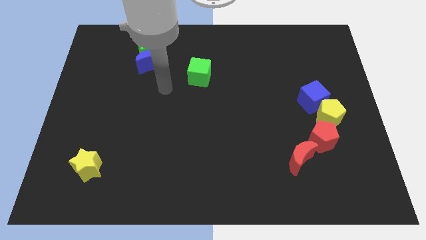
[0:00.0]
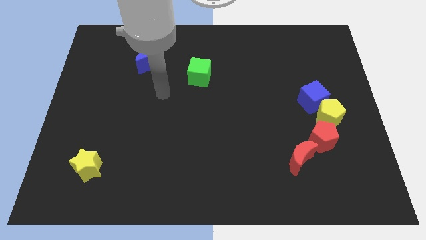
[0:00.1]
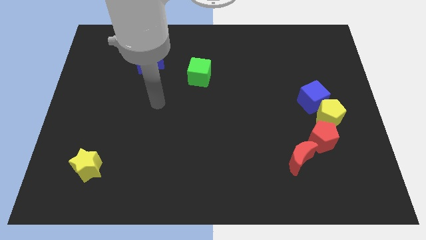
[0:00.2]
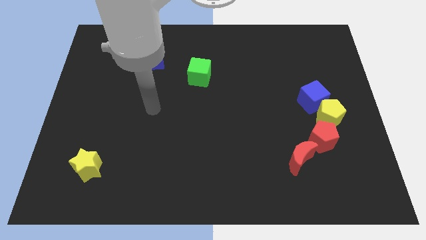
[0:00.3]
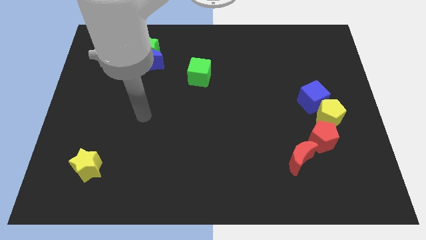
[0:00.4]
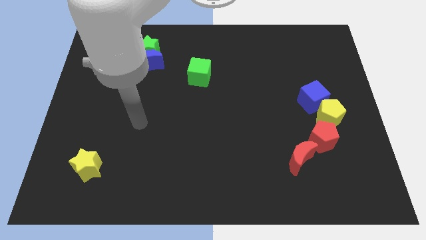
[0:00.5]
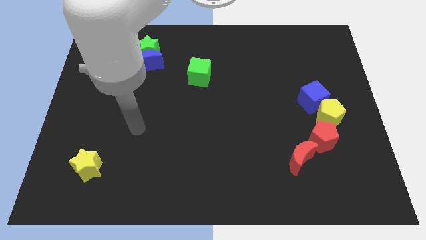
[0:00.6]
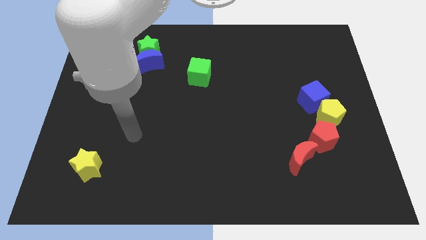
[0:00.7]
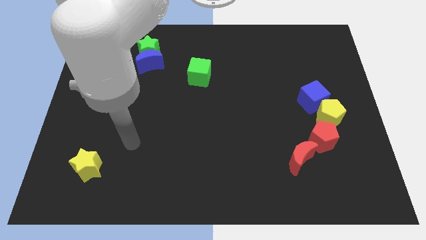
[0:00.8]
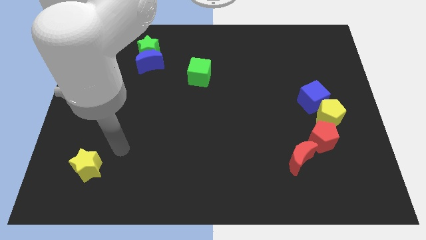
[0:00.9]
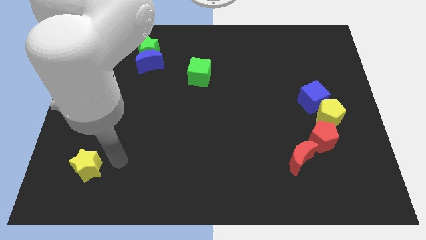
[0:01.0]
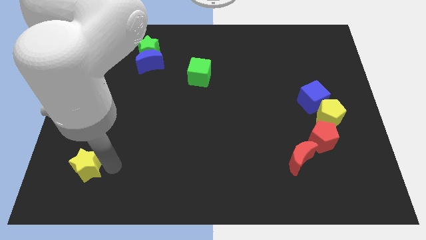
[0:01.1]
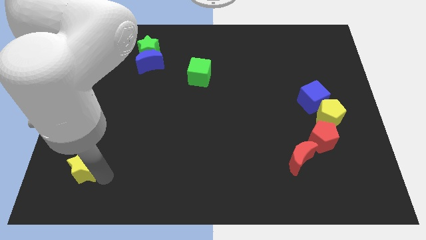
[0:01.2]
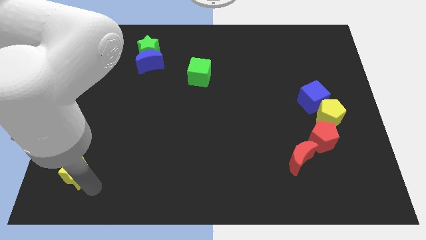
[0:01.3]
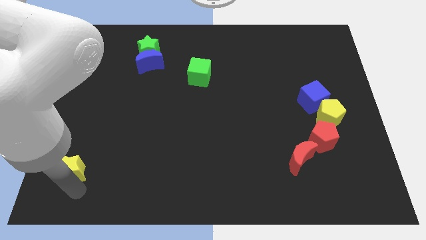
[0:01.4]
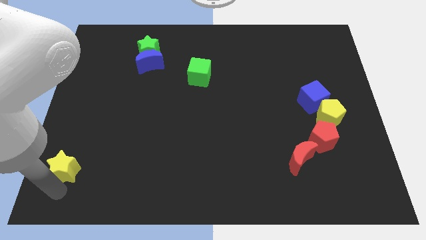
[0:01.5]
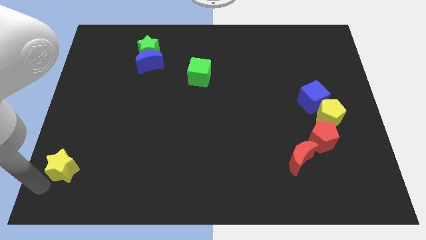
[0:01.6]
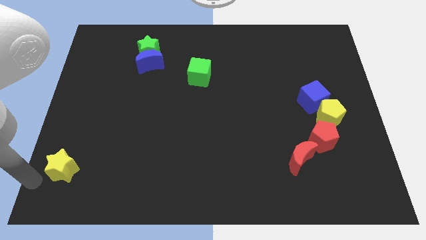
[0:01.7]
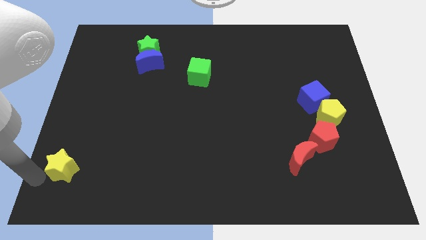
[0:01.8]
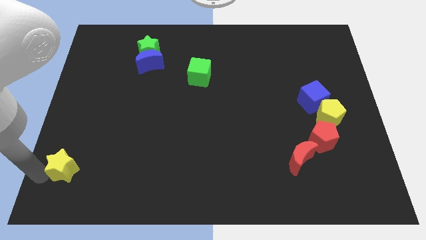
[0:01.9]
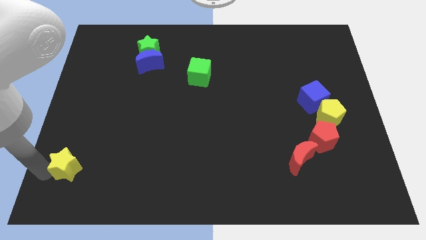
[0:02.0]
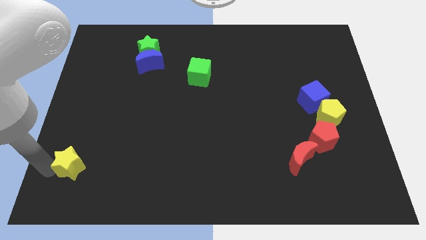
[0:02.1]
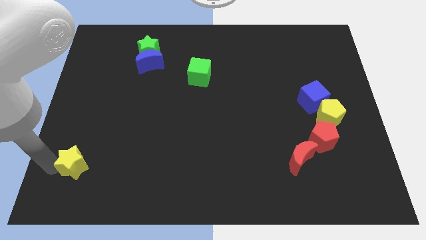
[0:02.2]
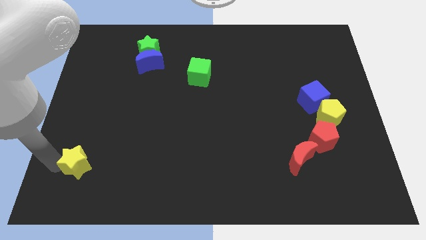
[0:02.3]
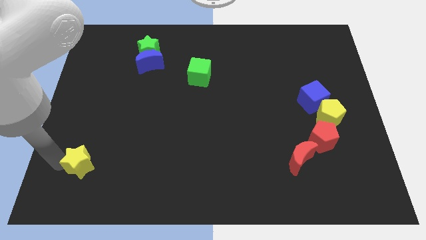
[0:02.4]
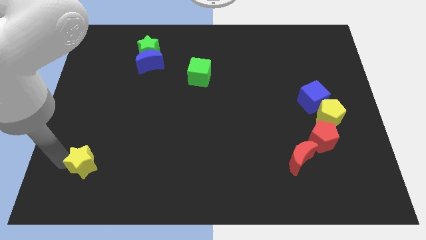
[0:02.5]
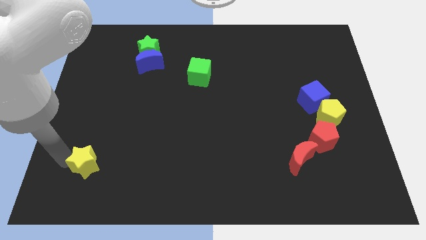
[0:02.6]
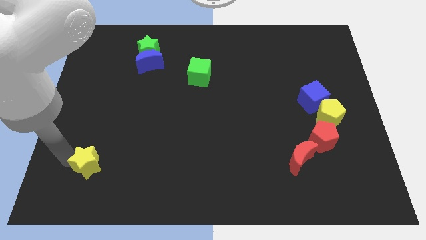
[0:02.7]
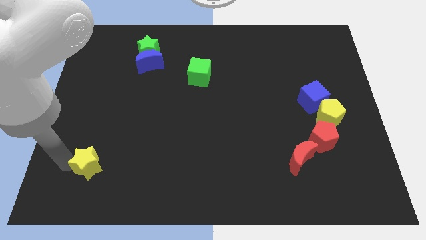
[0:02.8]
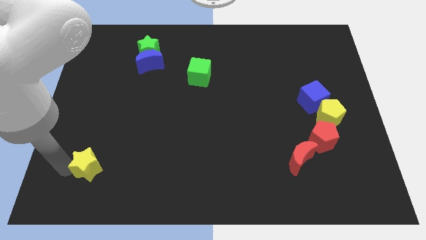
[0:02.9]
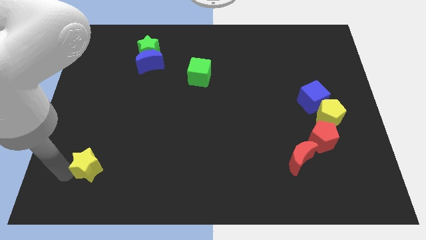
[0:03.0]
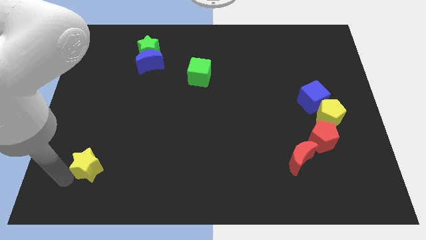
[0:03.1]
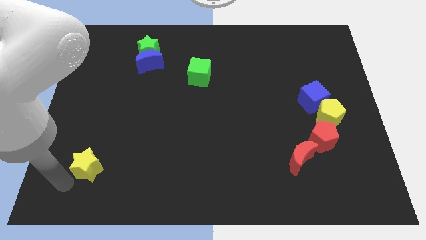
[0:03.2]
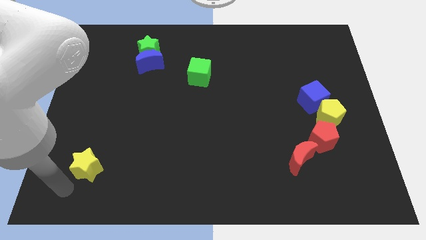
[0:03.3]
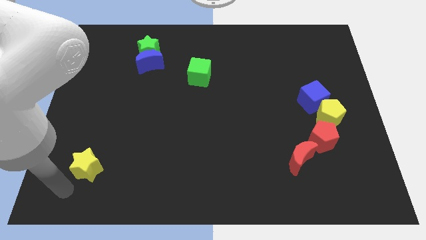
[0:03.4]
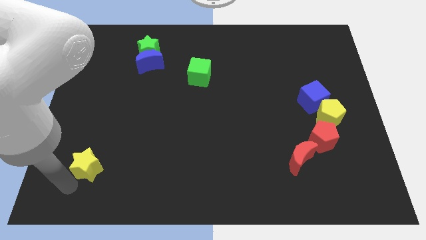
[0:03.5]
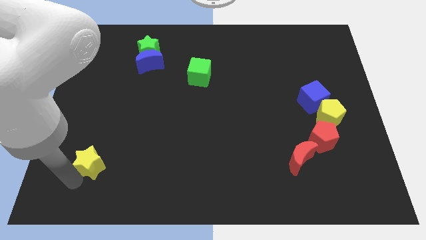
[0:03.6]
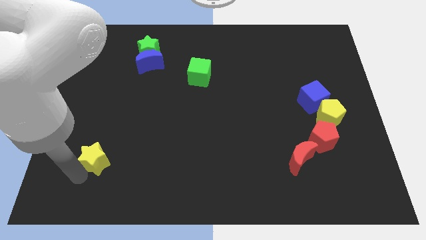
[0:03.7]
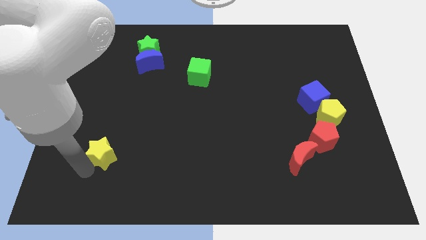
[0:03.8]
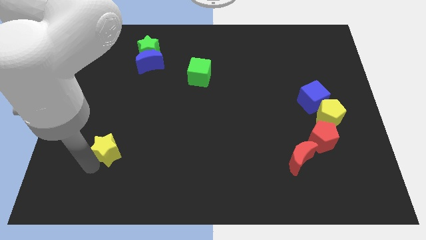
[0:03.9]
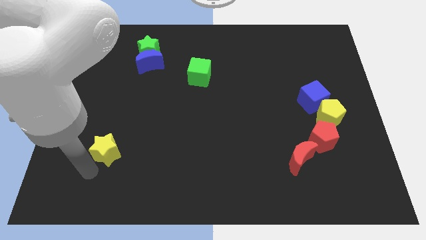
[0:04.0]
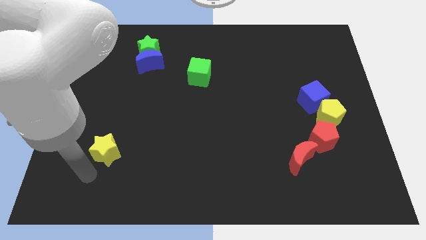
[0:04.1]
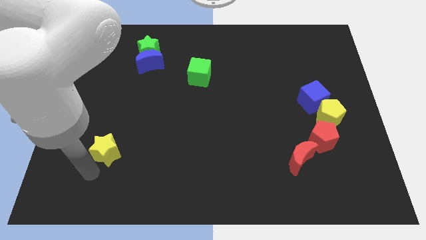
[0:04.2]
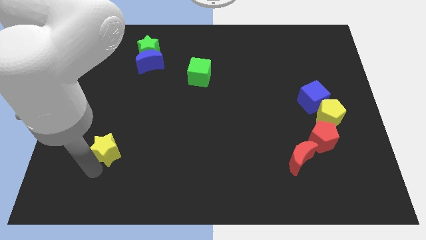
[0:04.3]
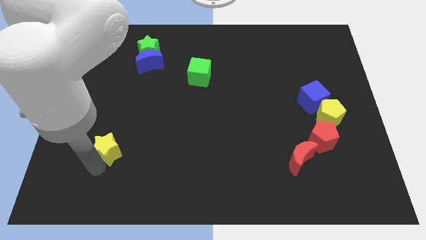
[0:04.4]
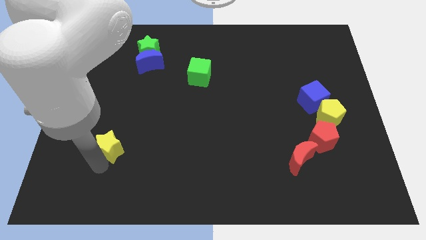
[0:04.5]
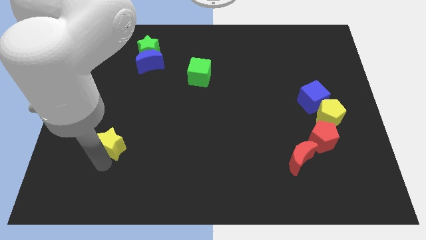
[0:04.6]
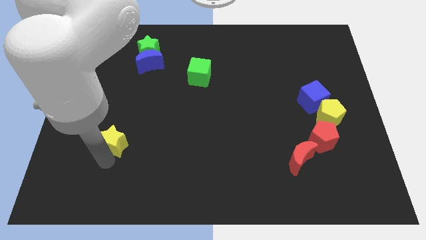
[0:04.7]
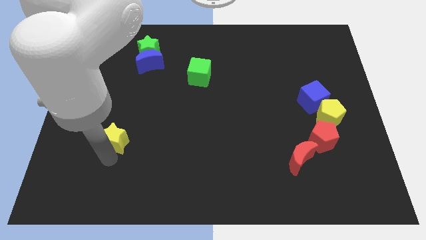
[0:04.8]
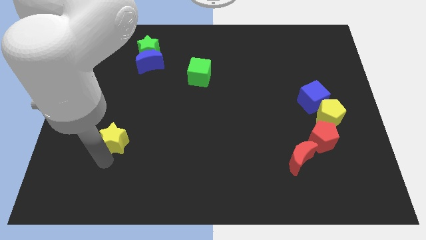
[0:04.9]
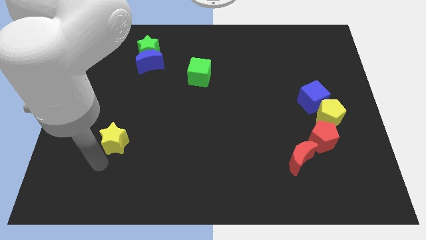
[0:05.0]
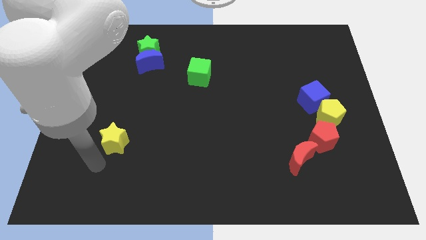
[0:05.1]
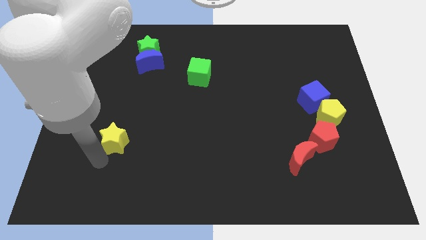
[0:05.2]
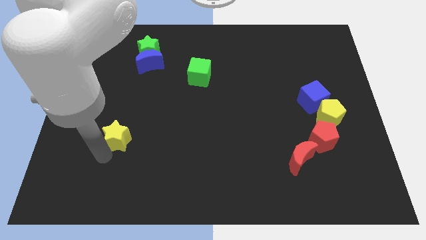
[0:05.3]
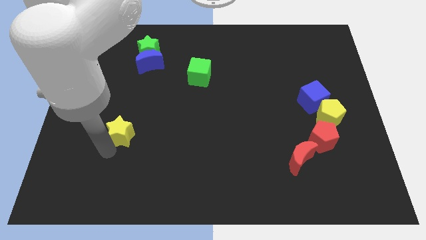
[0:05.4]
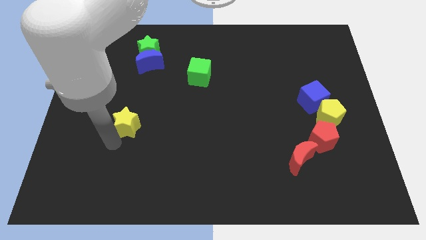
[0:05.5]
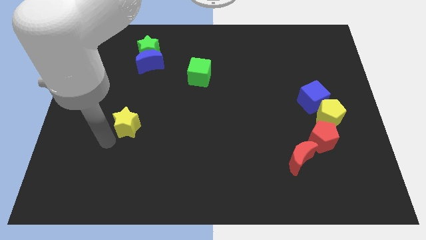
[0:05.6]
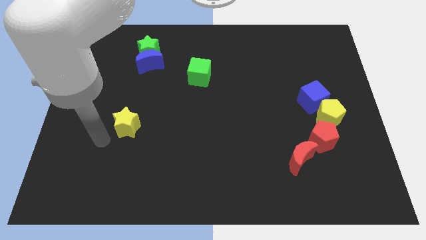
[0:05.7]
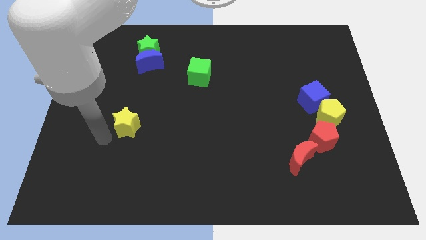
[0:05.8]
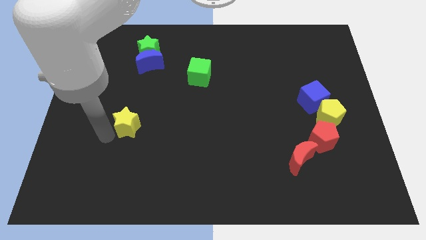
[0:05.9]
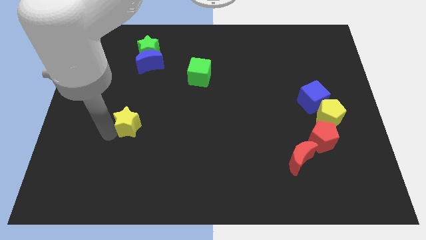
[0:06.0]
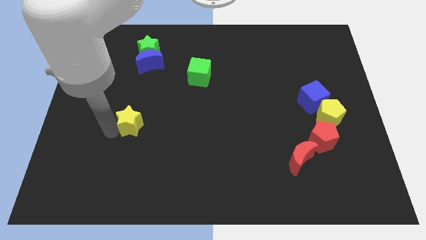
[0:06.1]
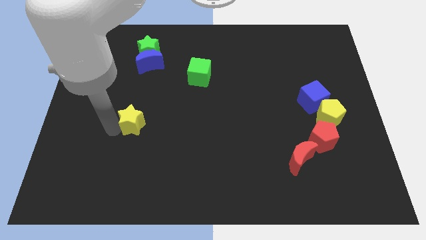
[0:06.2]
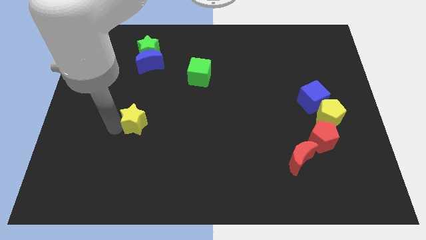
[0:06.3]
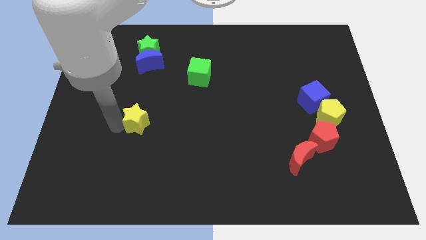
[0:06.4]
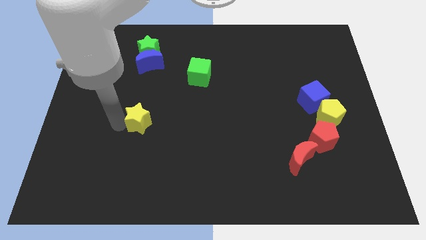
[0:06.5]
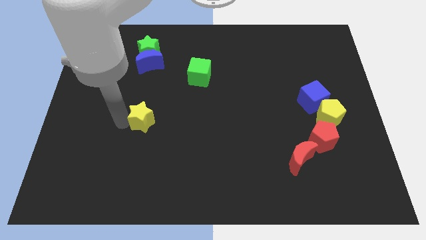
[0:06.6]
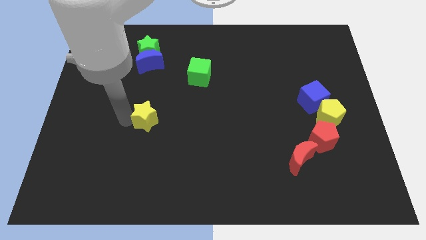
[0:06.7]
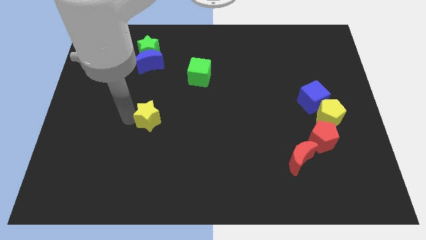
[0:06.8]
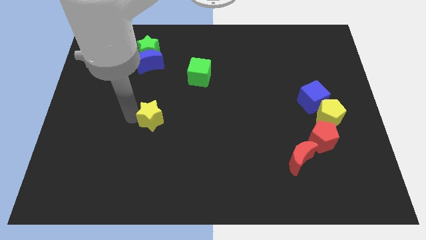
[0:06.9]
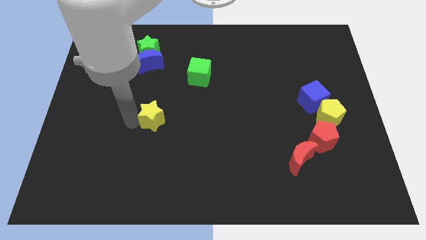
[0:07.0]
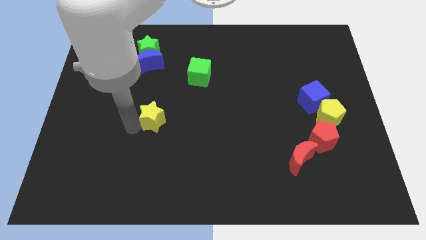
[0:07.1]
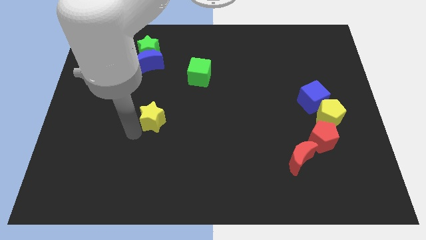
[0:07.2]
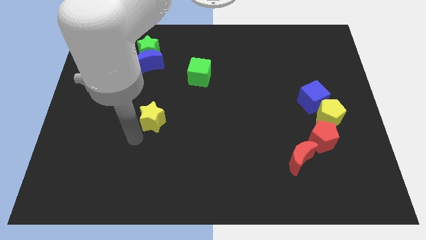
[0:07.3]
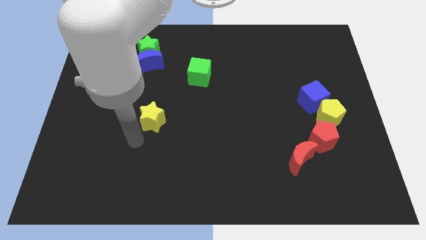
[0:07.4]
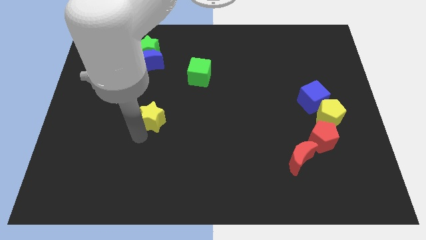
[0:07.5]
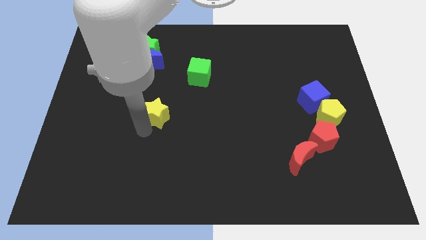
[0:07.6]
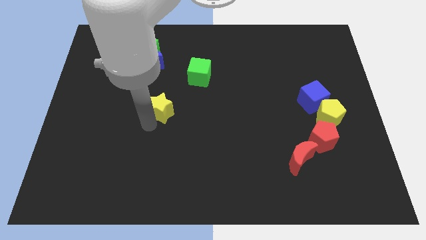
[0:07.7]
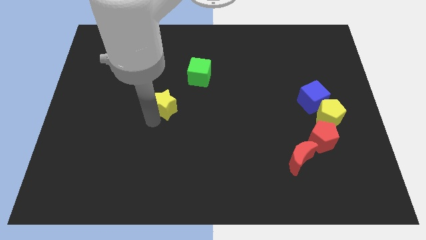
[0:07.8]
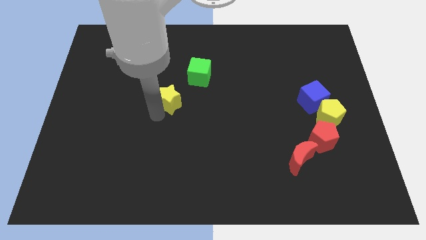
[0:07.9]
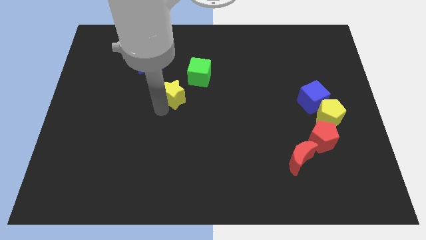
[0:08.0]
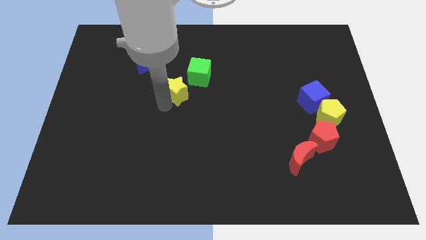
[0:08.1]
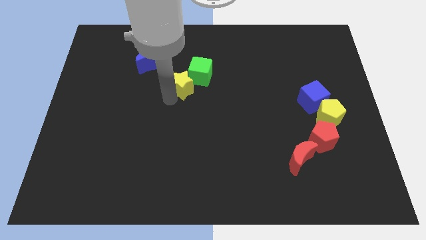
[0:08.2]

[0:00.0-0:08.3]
push the yellow star towards the green cube
